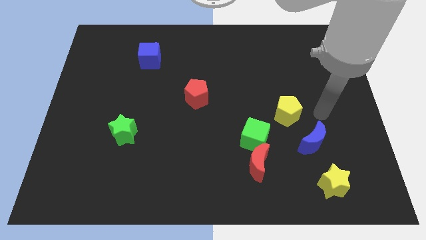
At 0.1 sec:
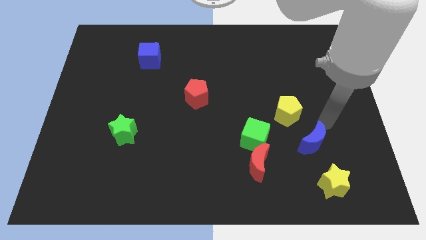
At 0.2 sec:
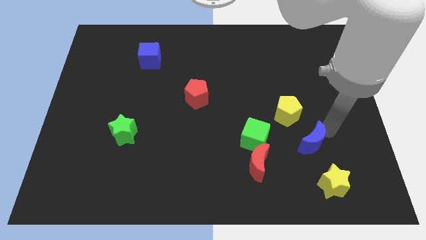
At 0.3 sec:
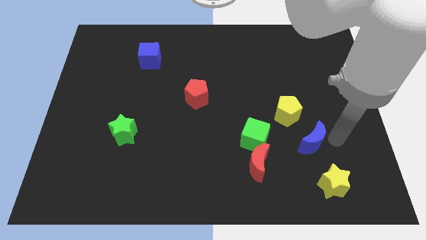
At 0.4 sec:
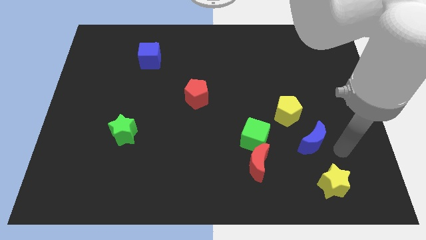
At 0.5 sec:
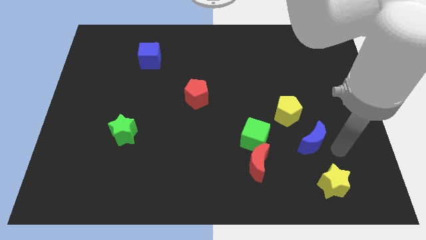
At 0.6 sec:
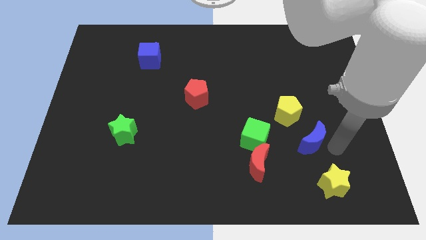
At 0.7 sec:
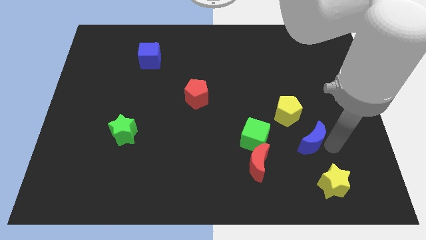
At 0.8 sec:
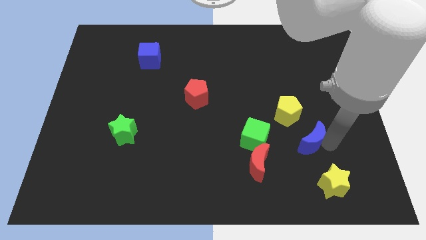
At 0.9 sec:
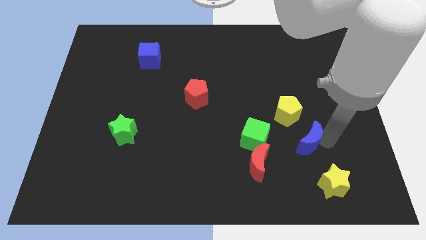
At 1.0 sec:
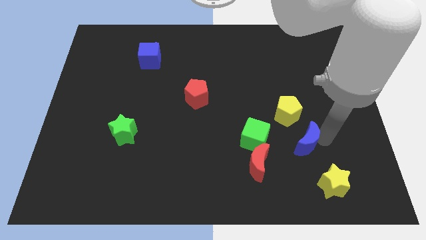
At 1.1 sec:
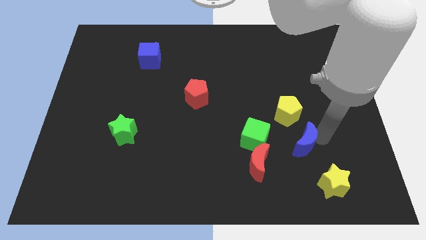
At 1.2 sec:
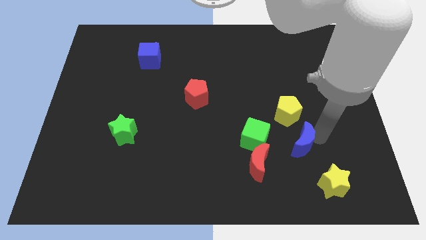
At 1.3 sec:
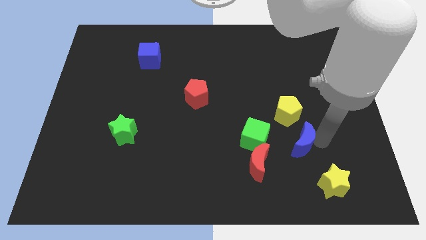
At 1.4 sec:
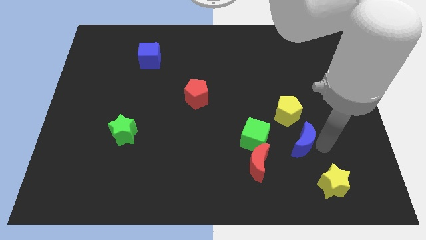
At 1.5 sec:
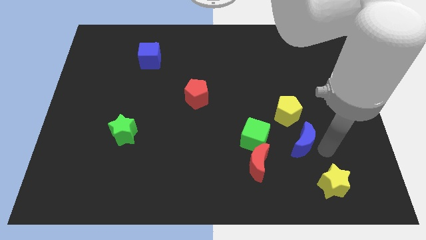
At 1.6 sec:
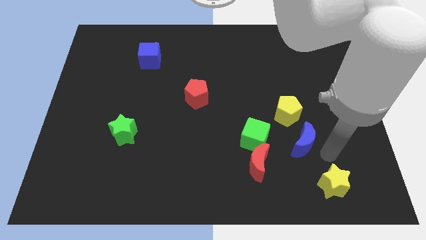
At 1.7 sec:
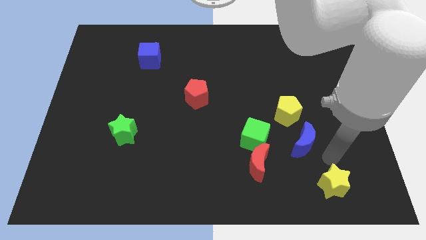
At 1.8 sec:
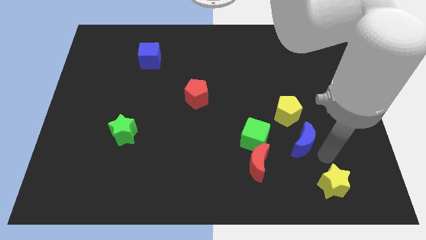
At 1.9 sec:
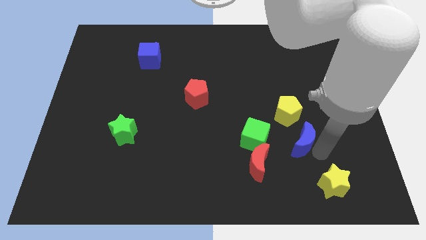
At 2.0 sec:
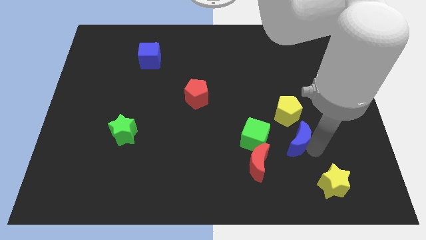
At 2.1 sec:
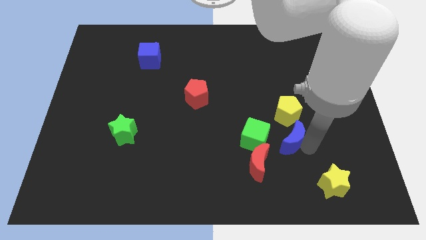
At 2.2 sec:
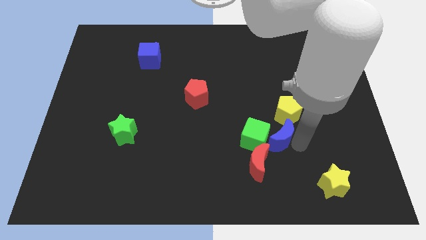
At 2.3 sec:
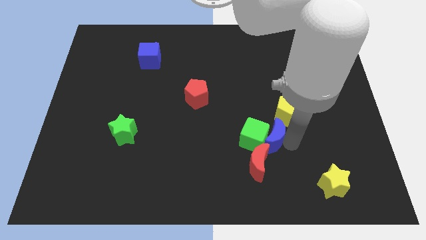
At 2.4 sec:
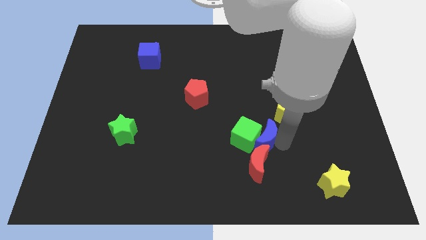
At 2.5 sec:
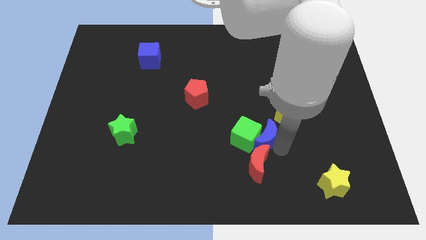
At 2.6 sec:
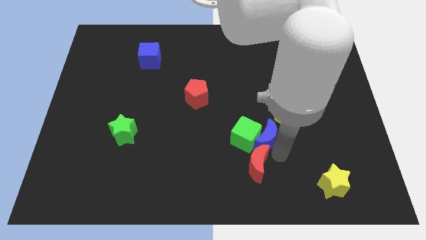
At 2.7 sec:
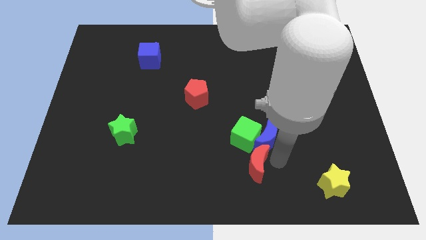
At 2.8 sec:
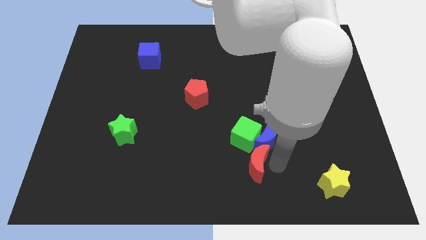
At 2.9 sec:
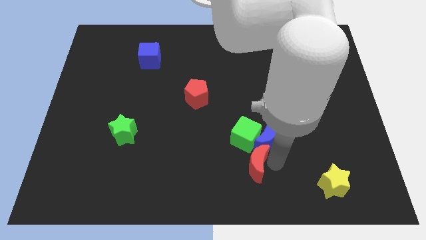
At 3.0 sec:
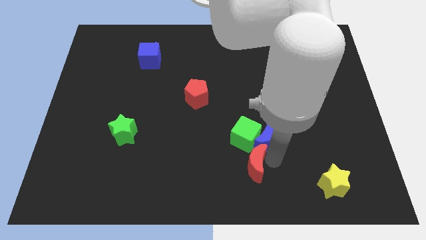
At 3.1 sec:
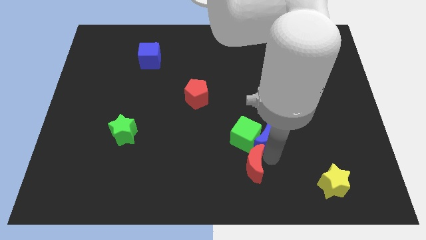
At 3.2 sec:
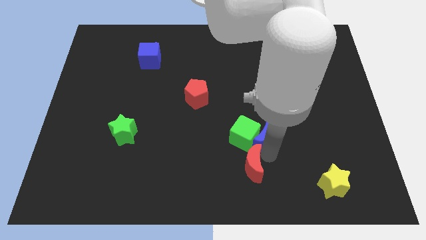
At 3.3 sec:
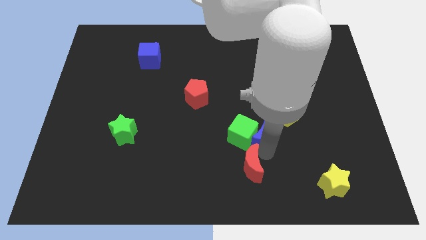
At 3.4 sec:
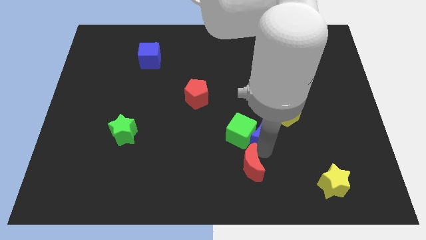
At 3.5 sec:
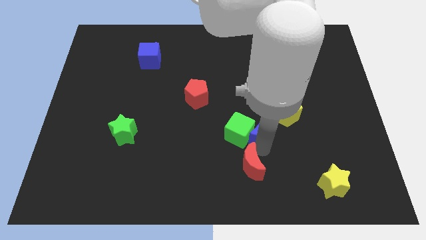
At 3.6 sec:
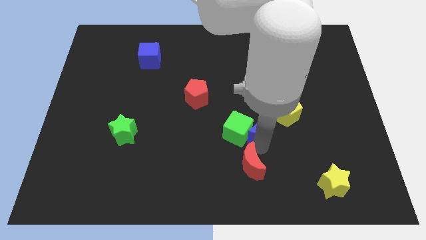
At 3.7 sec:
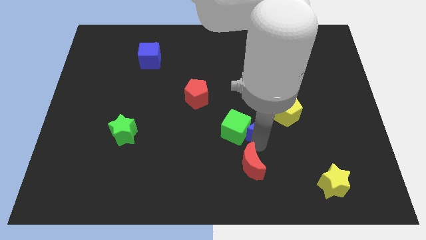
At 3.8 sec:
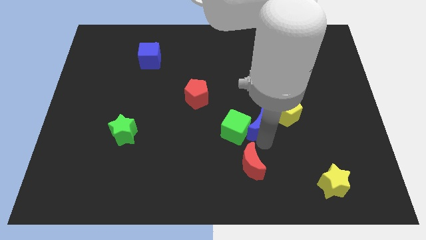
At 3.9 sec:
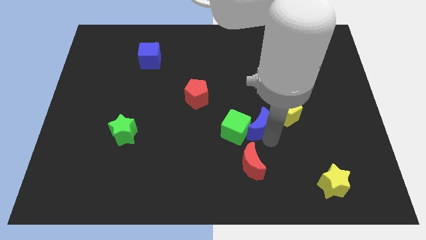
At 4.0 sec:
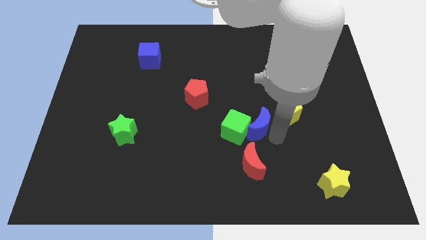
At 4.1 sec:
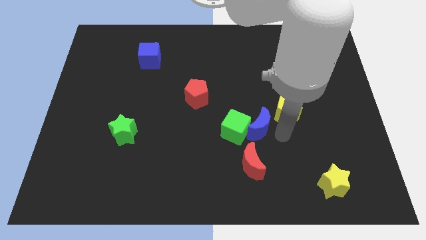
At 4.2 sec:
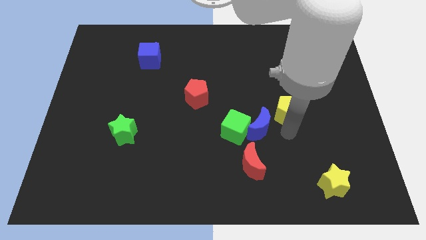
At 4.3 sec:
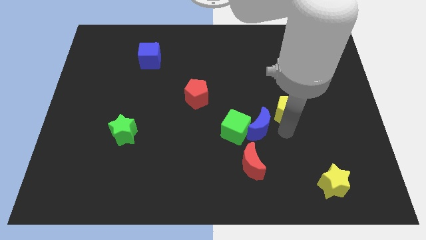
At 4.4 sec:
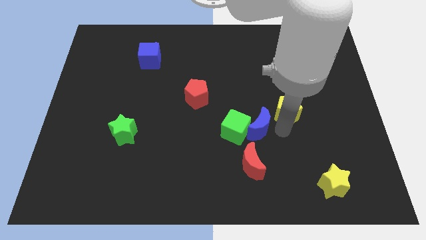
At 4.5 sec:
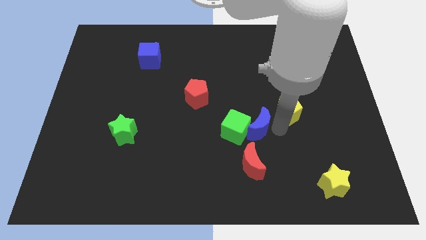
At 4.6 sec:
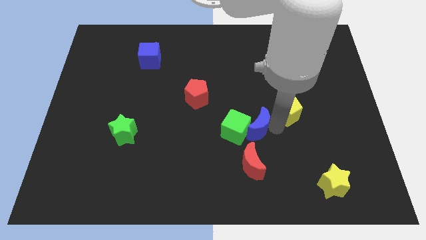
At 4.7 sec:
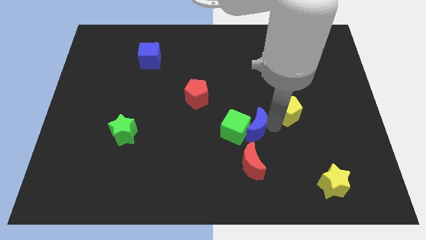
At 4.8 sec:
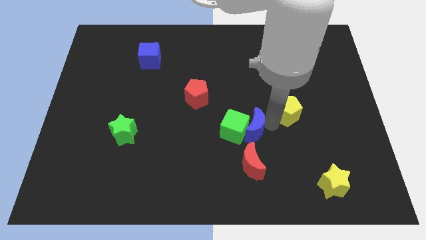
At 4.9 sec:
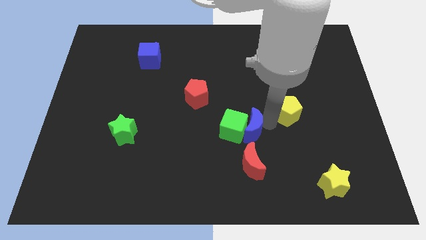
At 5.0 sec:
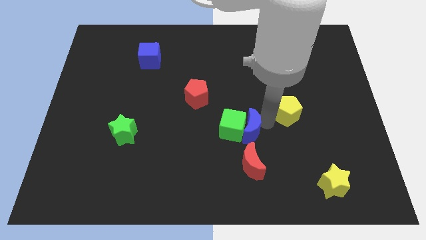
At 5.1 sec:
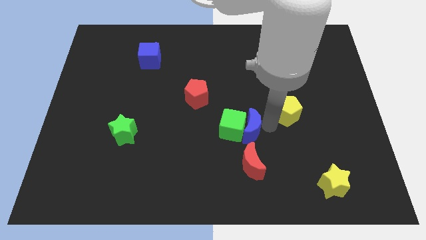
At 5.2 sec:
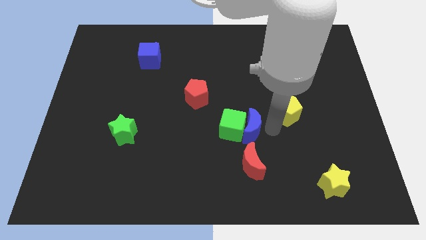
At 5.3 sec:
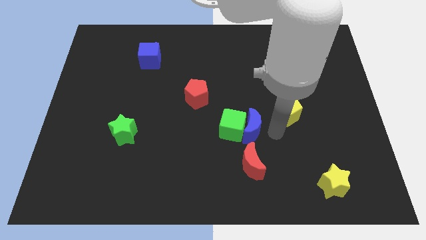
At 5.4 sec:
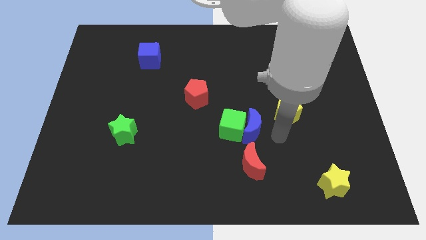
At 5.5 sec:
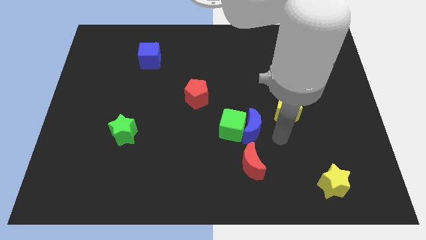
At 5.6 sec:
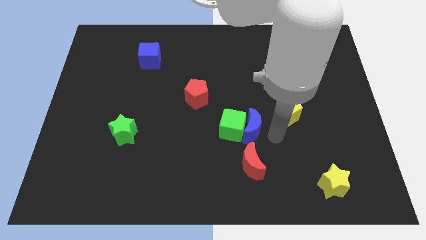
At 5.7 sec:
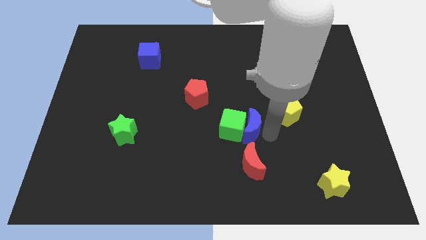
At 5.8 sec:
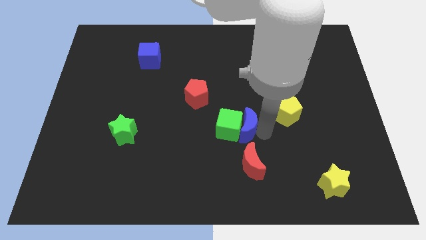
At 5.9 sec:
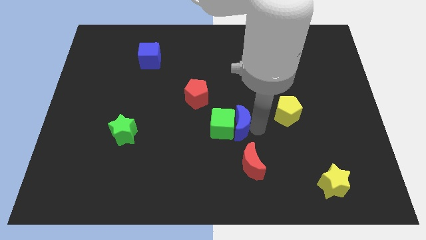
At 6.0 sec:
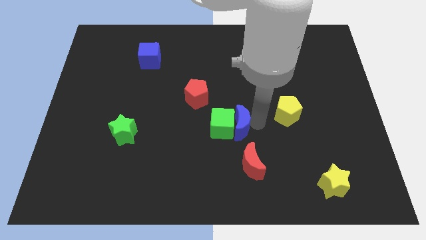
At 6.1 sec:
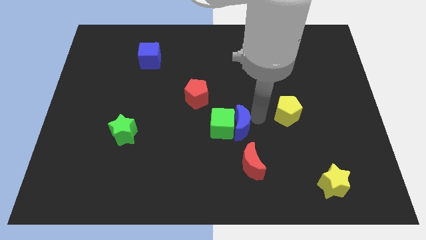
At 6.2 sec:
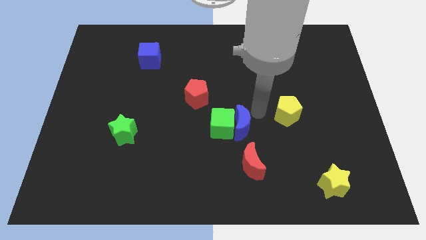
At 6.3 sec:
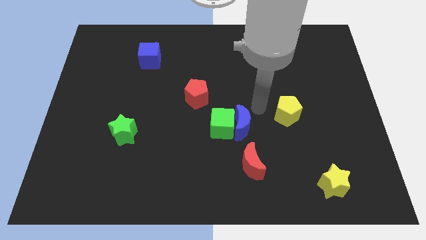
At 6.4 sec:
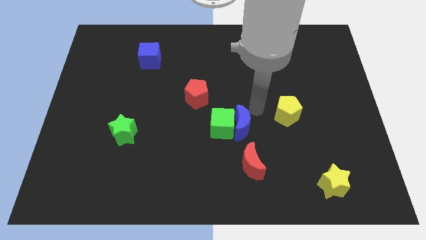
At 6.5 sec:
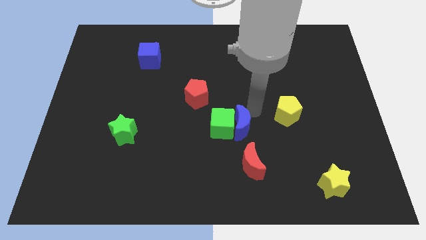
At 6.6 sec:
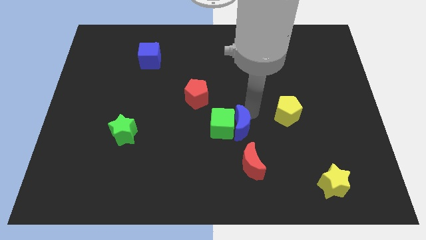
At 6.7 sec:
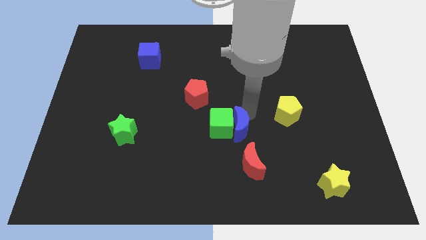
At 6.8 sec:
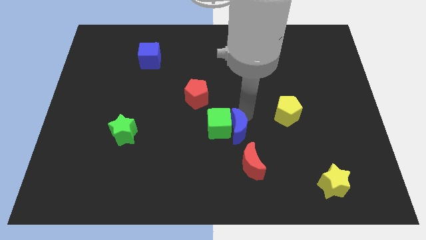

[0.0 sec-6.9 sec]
put the blue moon diagonally up and to the left of the red moon
